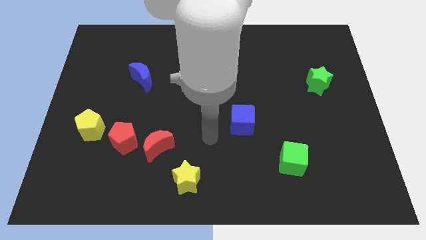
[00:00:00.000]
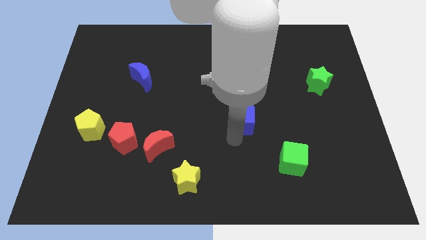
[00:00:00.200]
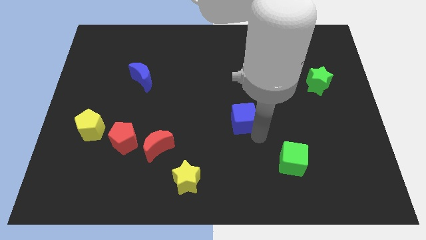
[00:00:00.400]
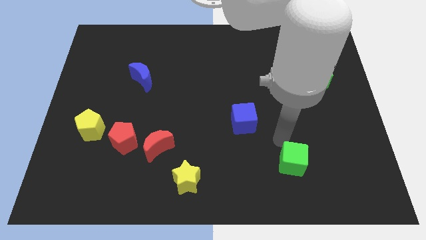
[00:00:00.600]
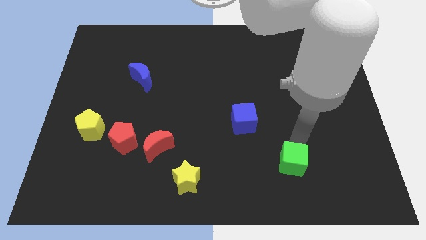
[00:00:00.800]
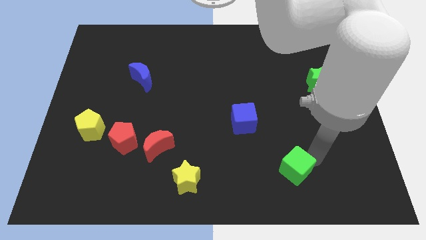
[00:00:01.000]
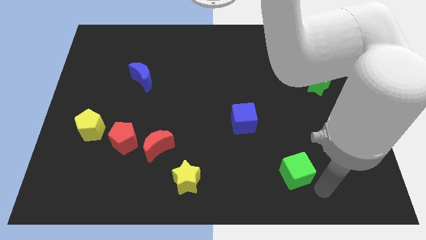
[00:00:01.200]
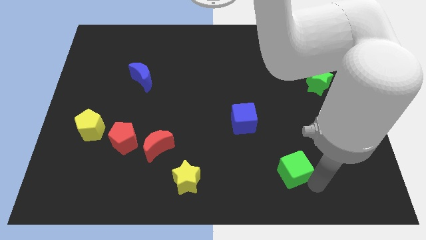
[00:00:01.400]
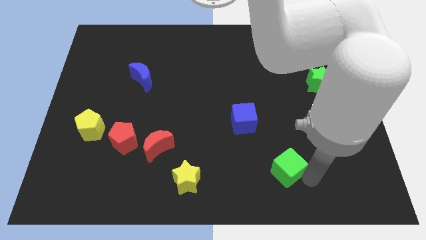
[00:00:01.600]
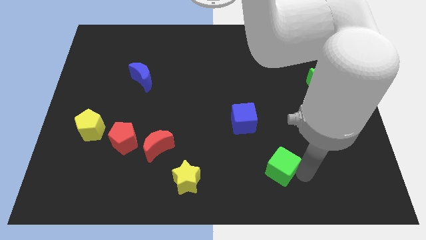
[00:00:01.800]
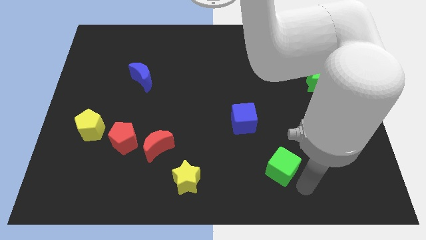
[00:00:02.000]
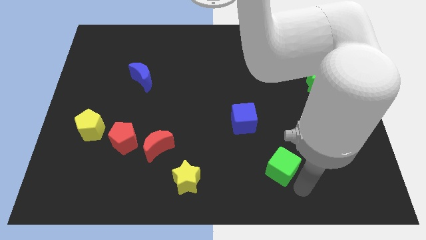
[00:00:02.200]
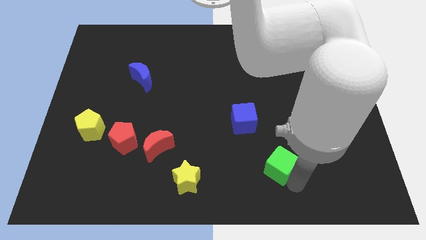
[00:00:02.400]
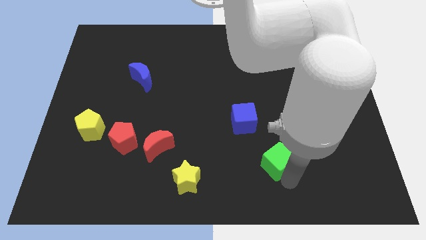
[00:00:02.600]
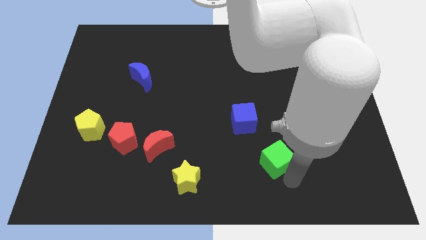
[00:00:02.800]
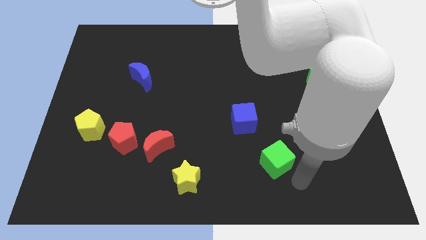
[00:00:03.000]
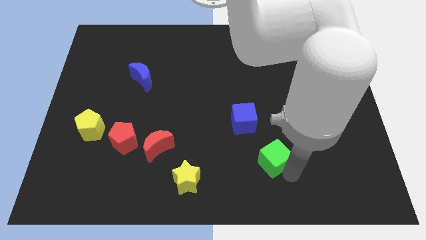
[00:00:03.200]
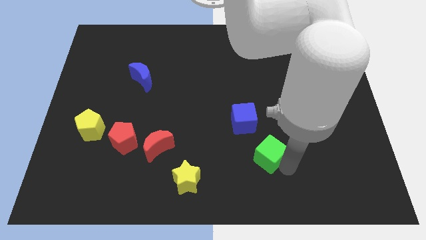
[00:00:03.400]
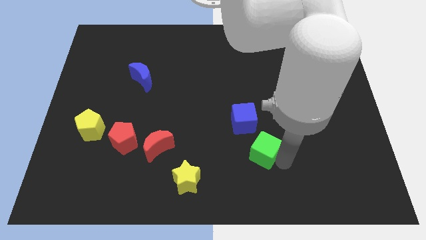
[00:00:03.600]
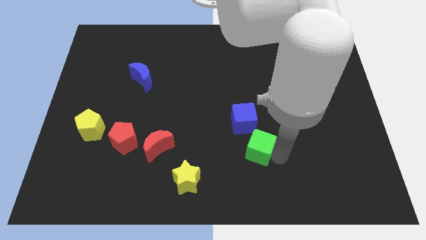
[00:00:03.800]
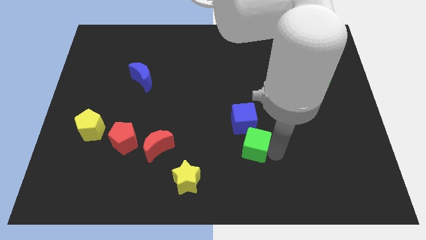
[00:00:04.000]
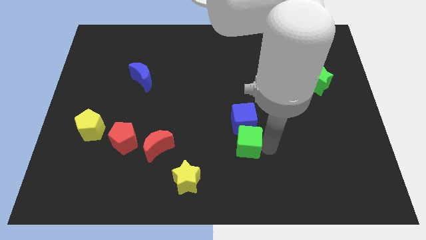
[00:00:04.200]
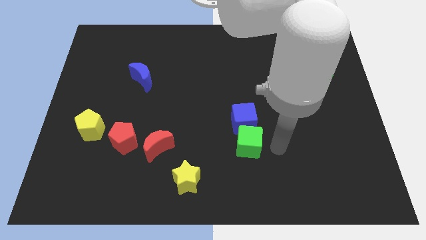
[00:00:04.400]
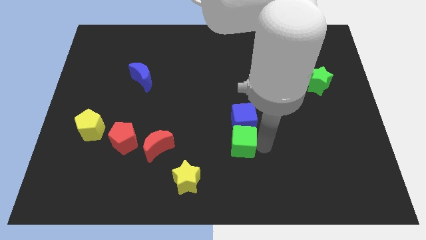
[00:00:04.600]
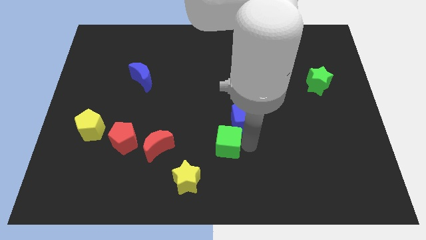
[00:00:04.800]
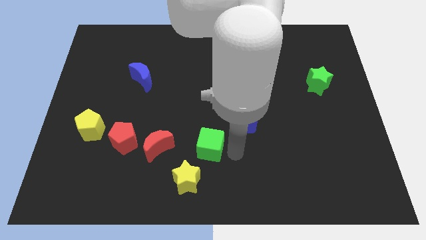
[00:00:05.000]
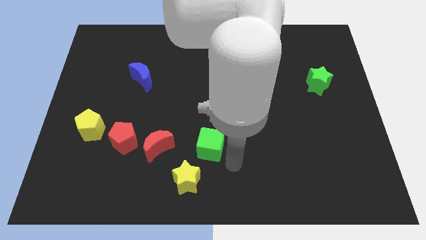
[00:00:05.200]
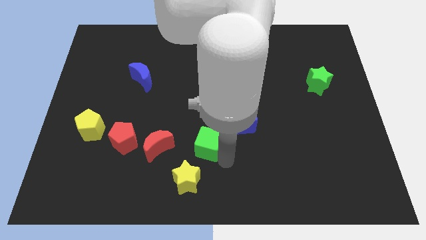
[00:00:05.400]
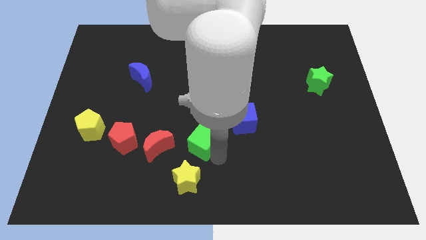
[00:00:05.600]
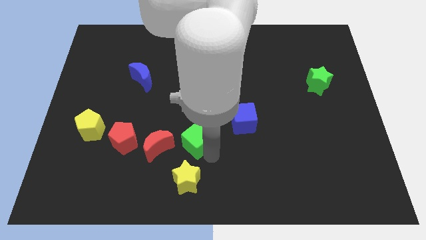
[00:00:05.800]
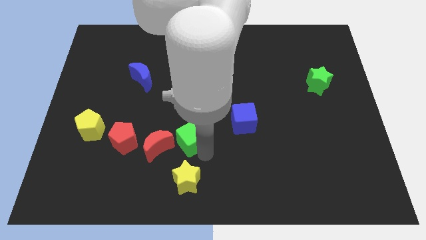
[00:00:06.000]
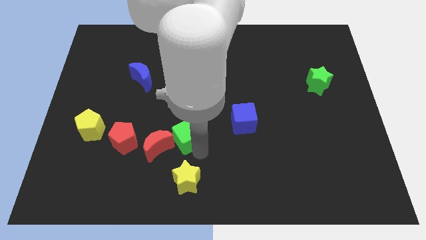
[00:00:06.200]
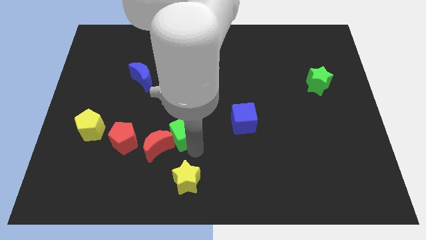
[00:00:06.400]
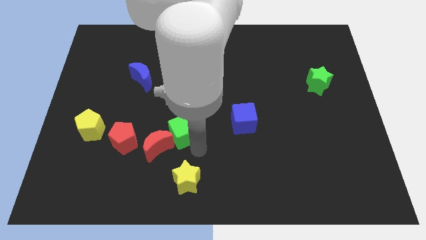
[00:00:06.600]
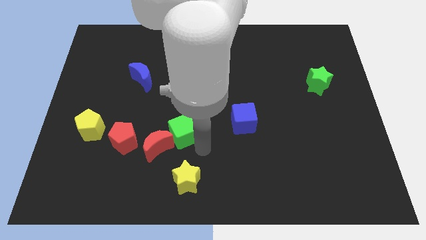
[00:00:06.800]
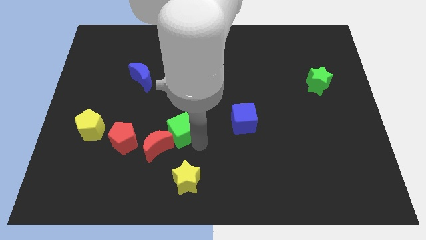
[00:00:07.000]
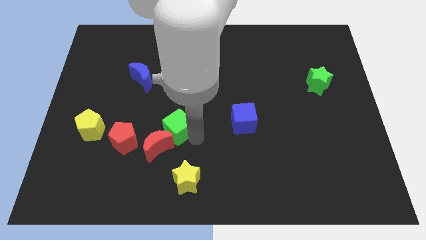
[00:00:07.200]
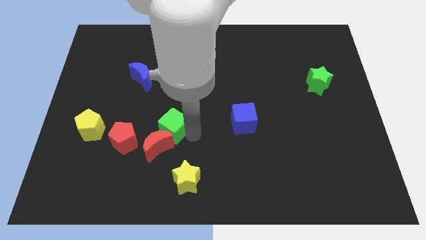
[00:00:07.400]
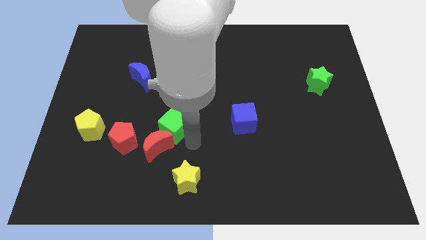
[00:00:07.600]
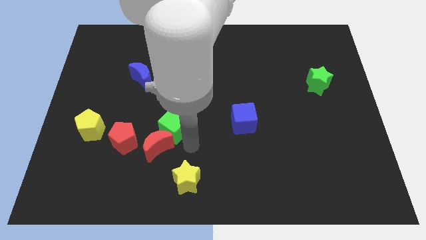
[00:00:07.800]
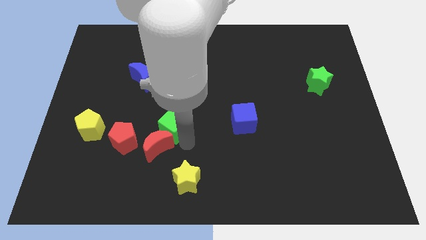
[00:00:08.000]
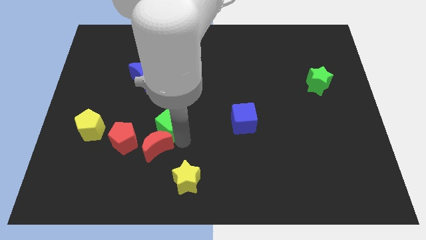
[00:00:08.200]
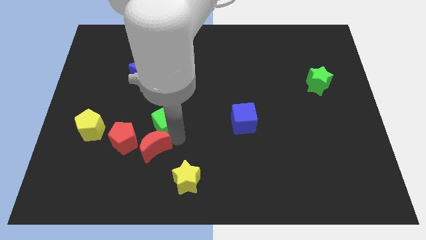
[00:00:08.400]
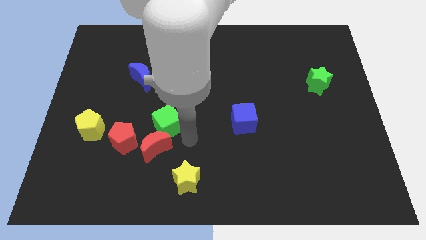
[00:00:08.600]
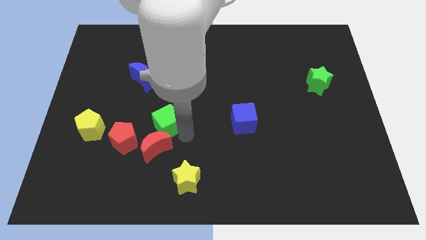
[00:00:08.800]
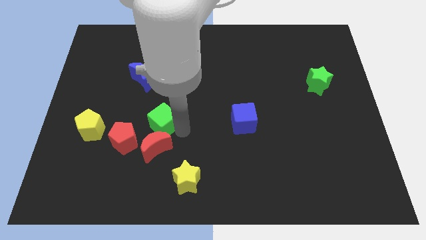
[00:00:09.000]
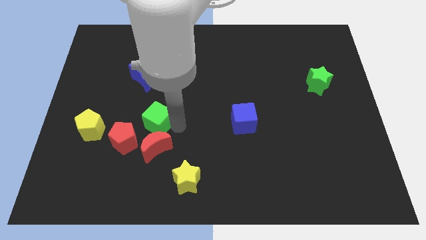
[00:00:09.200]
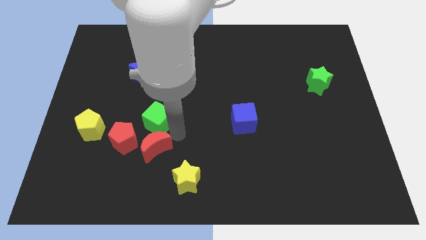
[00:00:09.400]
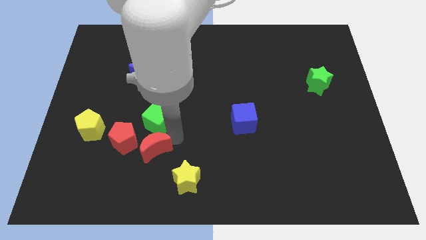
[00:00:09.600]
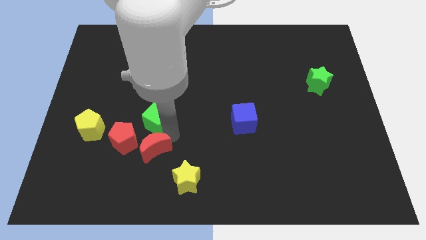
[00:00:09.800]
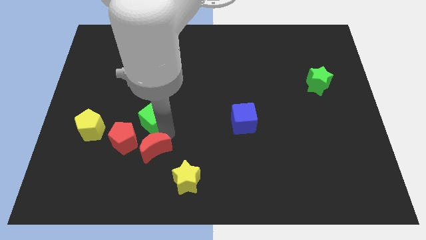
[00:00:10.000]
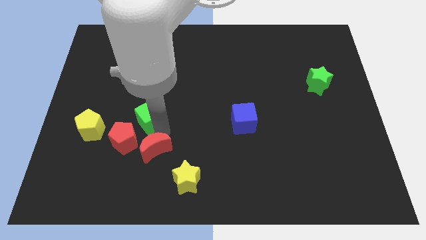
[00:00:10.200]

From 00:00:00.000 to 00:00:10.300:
move the green cube to the top of the red pentagon
